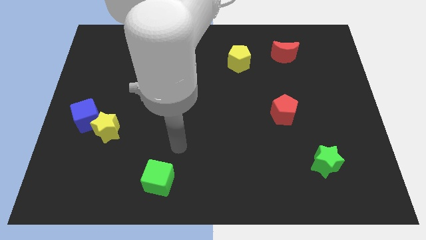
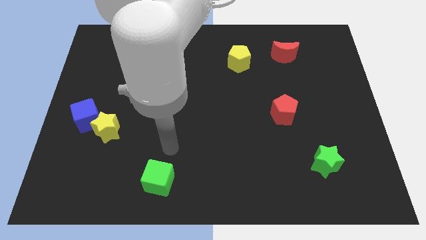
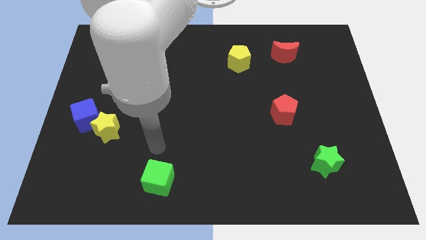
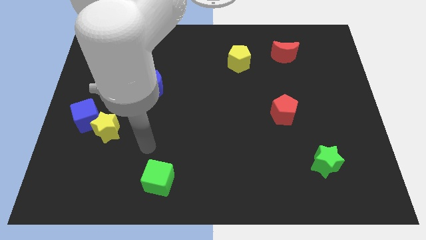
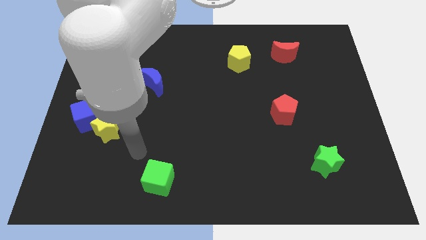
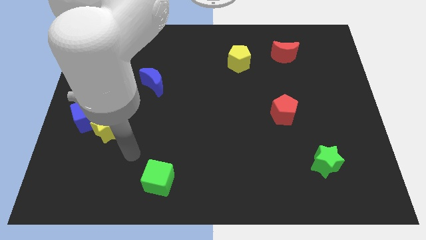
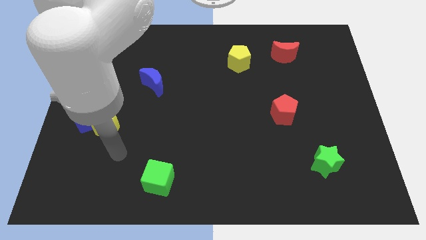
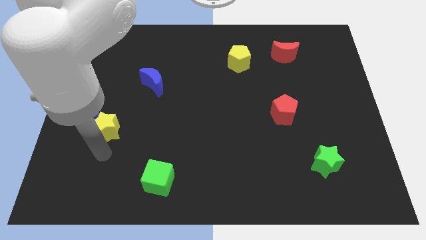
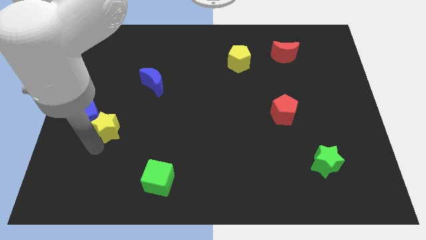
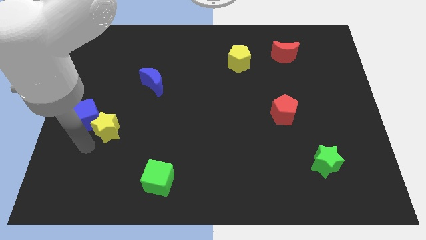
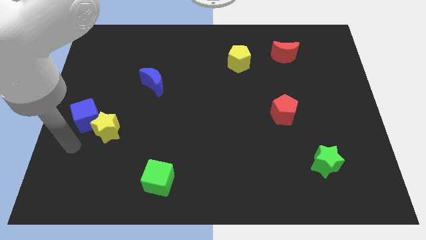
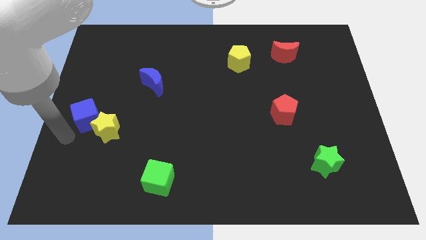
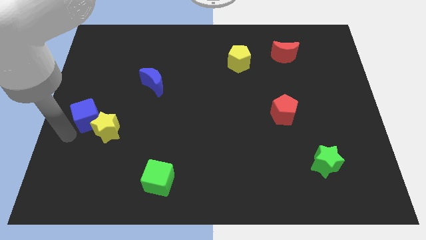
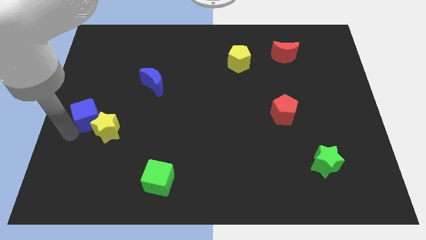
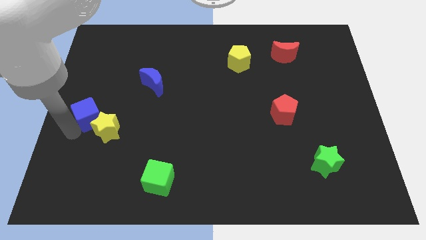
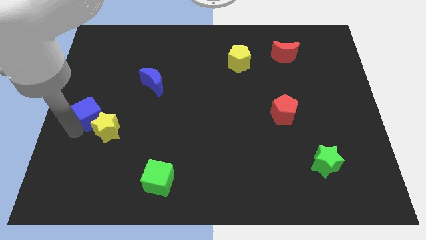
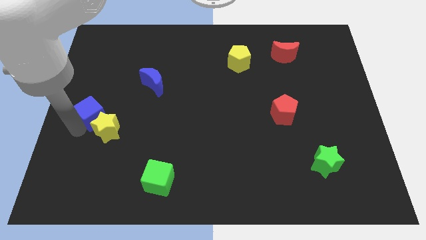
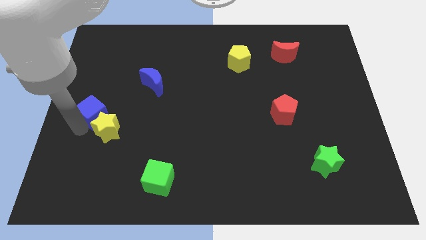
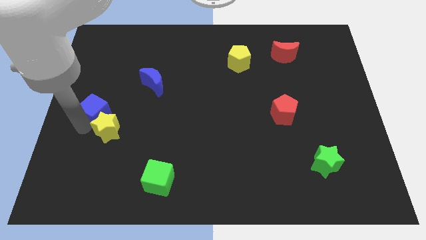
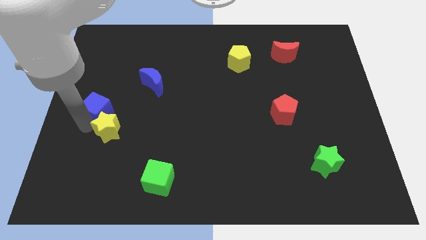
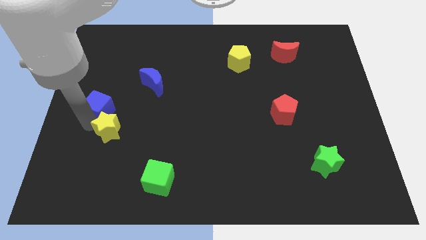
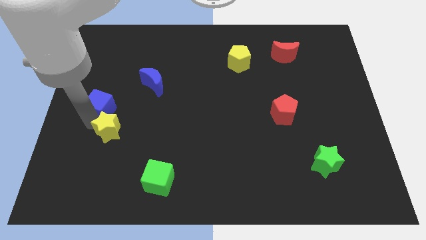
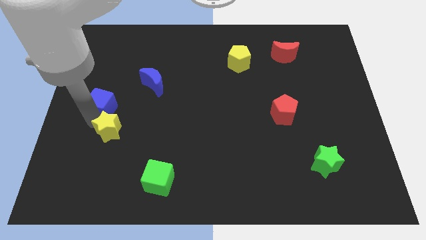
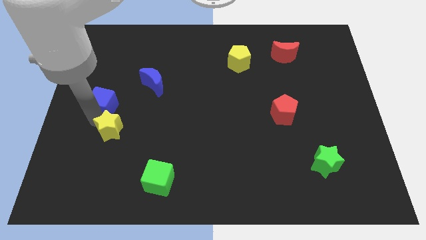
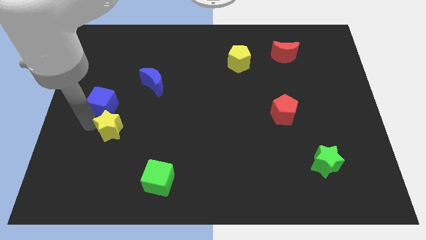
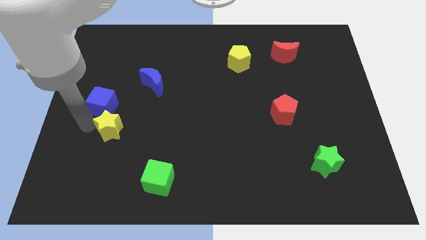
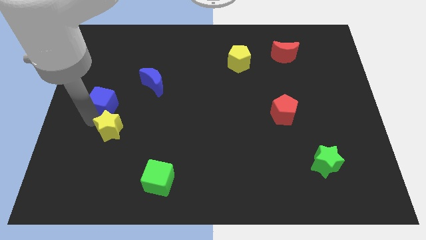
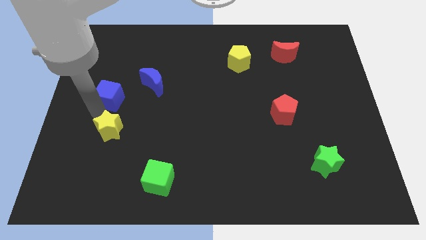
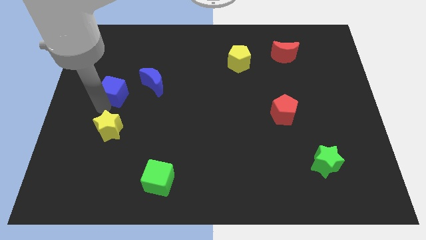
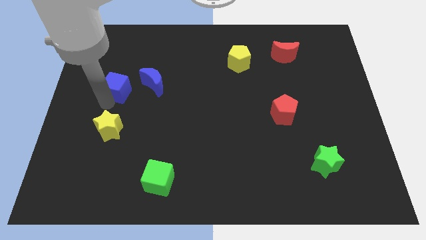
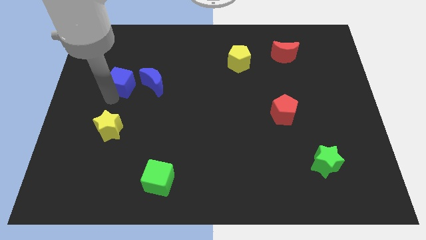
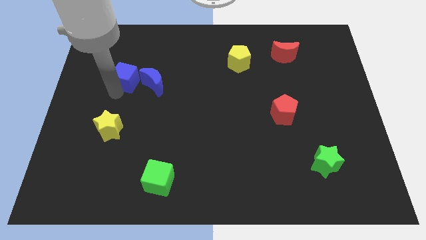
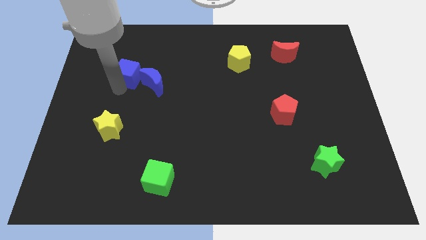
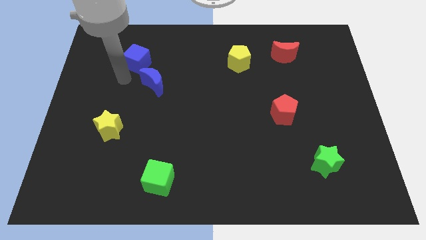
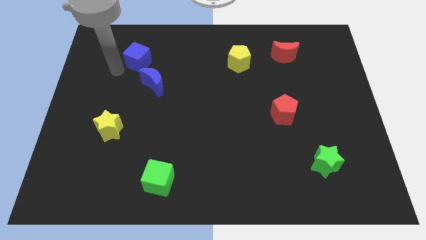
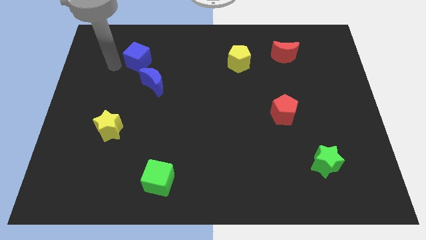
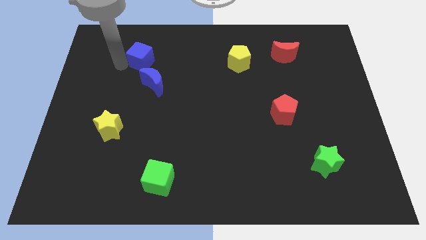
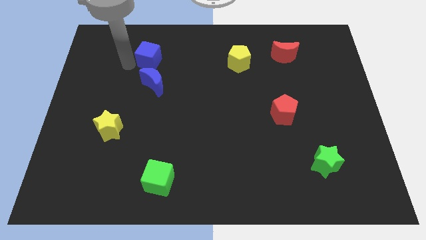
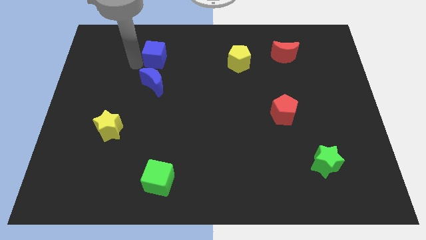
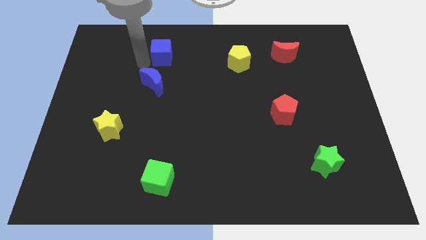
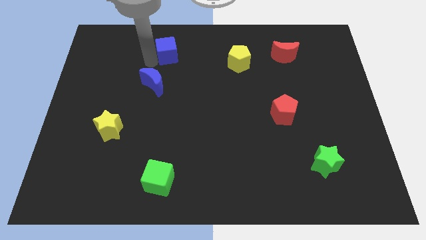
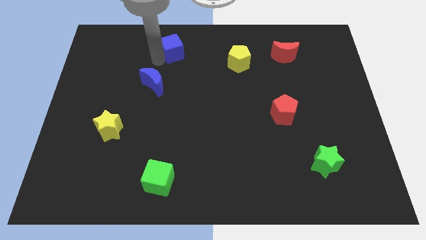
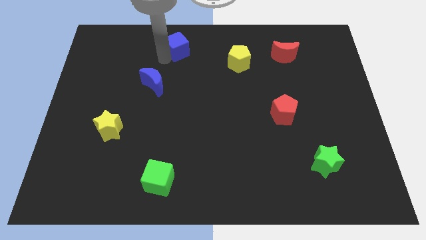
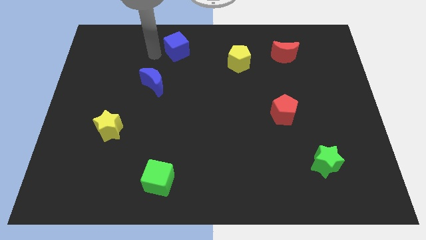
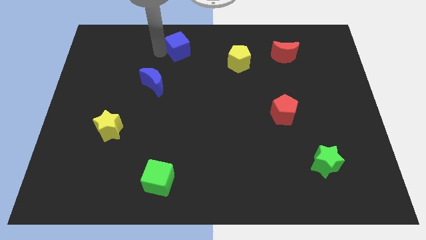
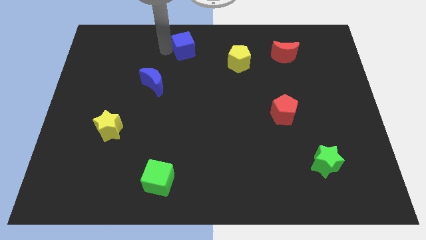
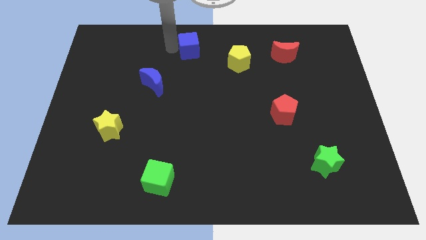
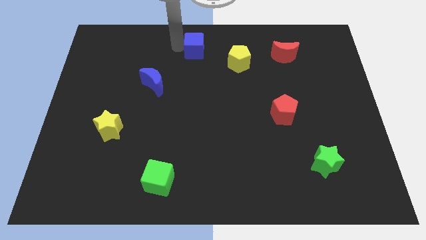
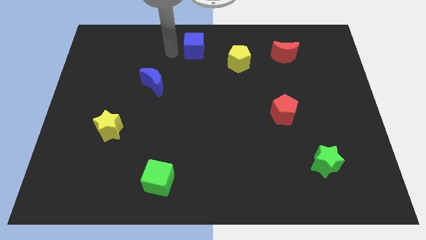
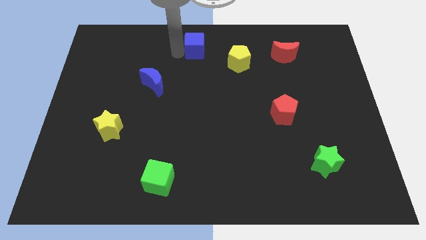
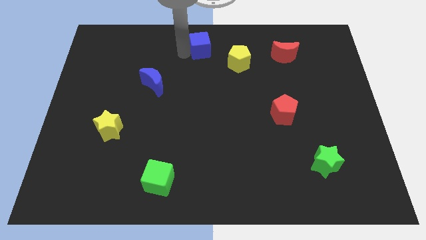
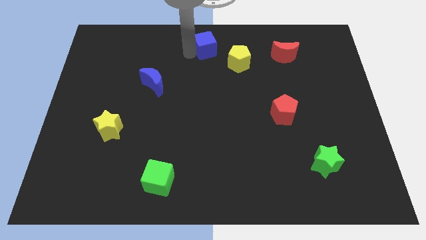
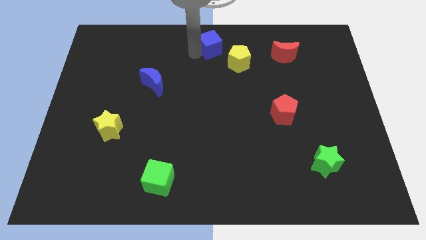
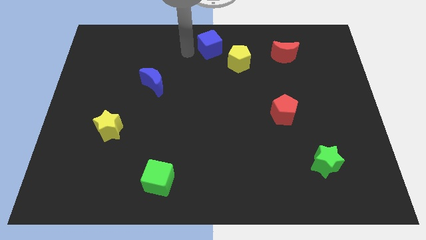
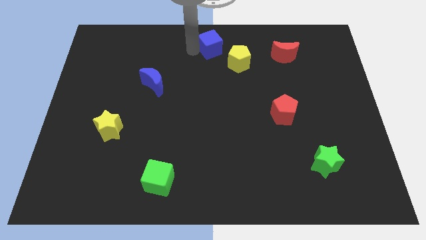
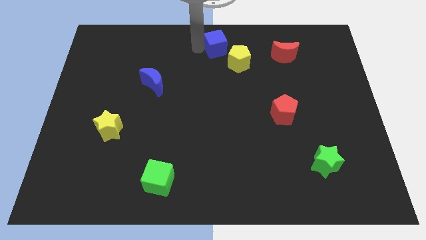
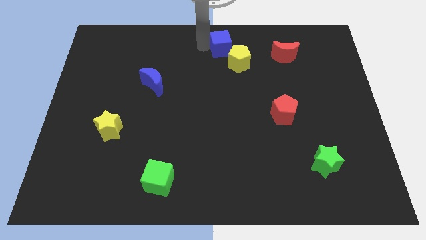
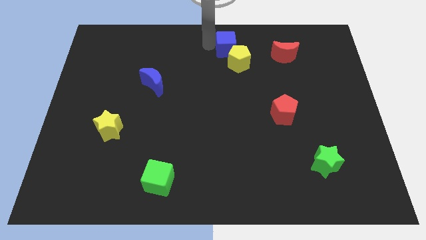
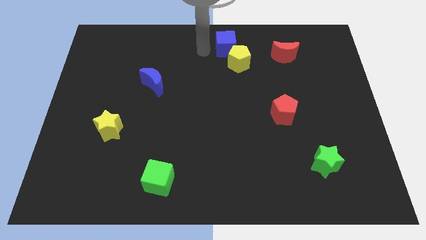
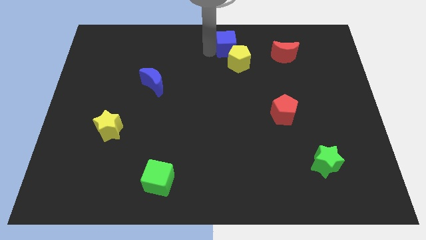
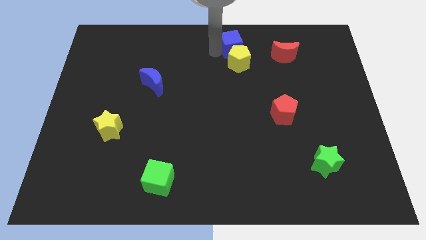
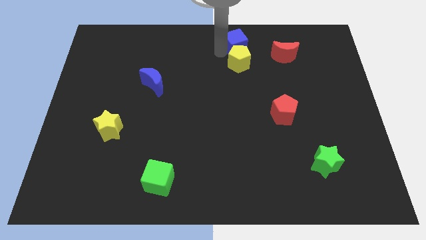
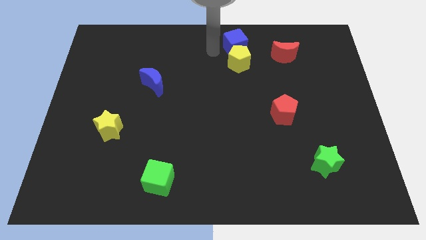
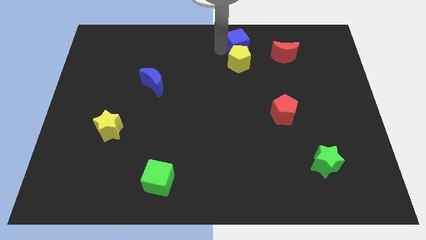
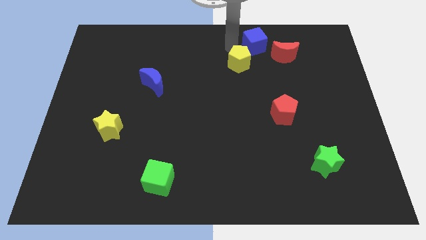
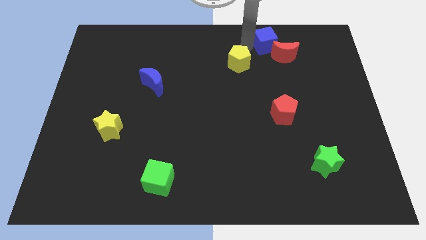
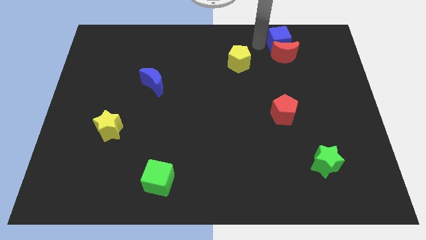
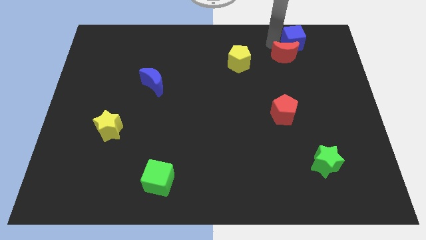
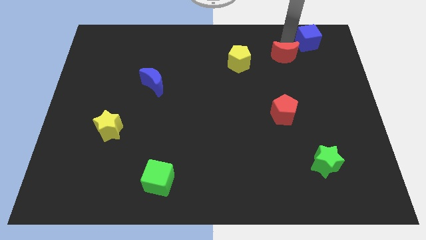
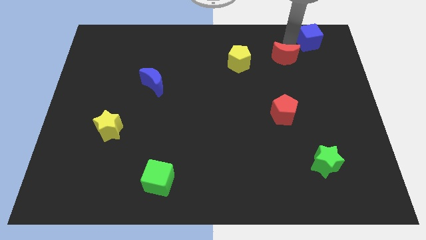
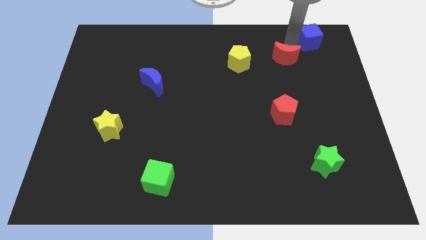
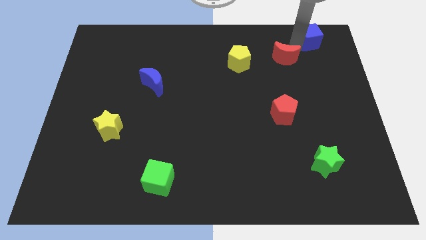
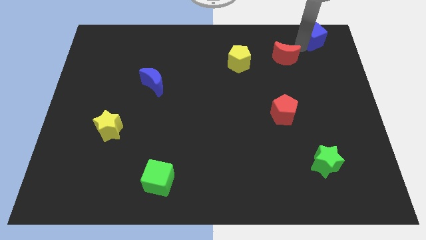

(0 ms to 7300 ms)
push the blue cube to the top right corner
